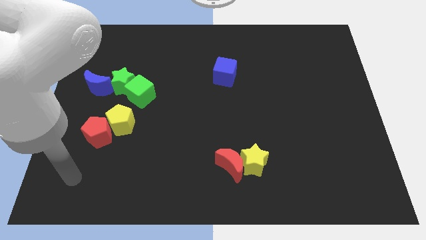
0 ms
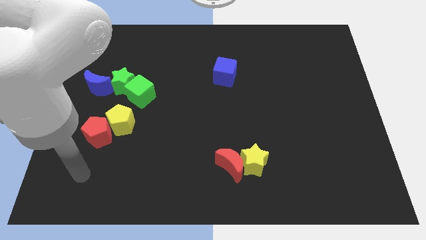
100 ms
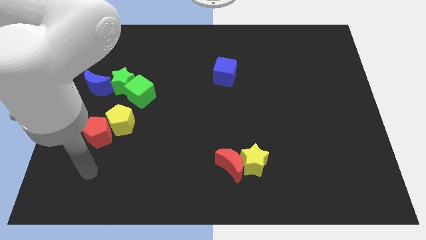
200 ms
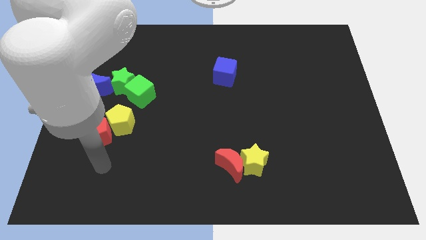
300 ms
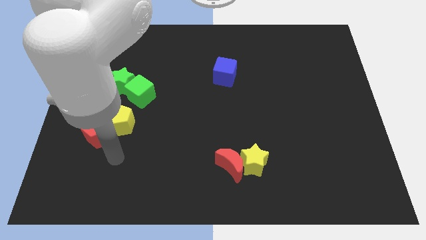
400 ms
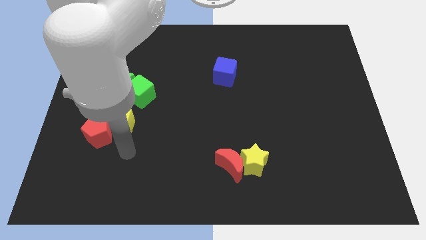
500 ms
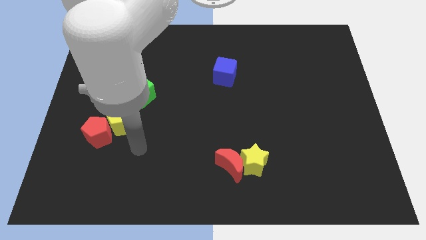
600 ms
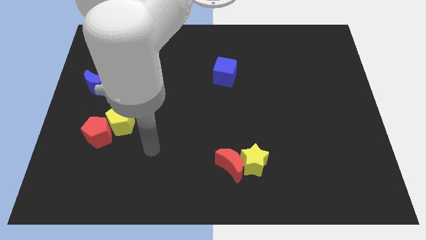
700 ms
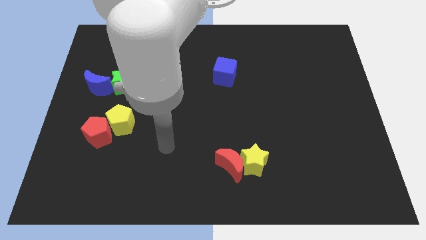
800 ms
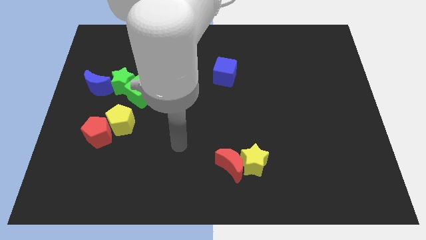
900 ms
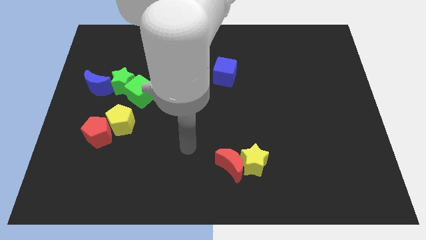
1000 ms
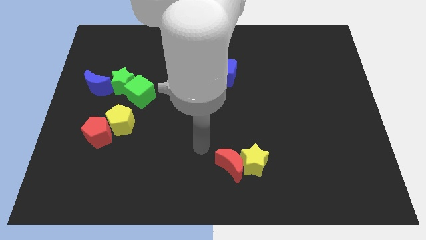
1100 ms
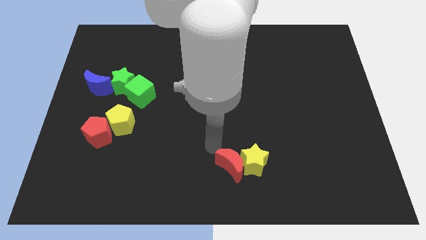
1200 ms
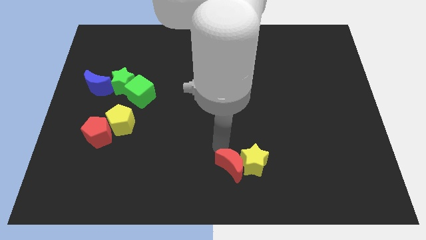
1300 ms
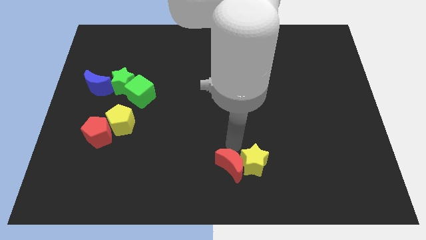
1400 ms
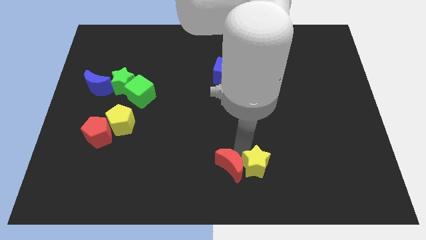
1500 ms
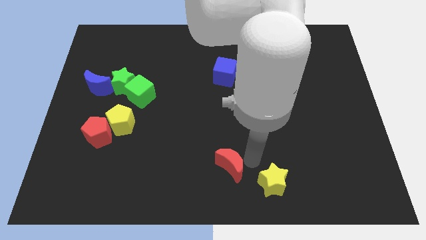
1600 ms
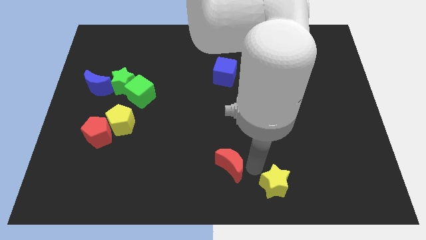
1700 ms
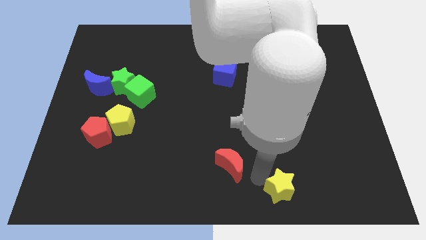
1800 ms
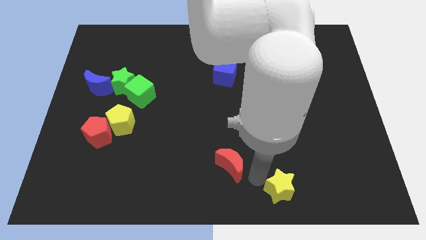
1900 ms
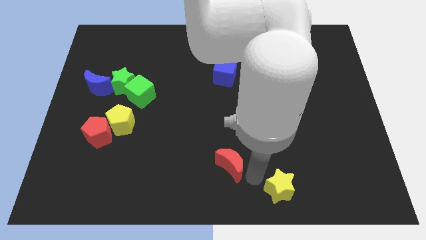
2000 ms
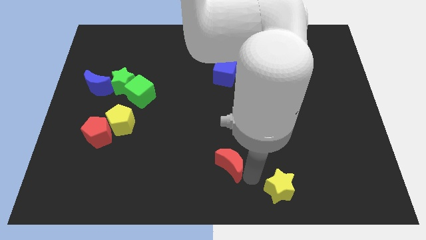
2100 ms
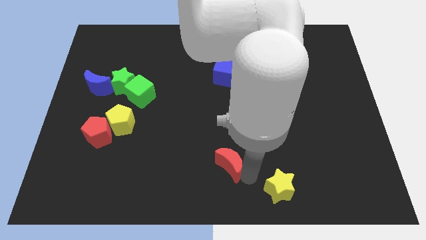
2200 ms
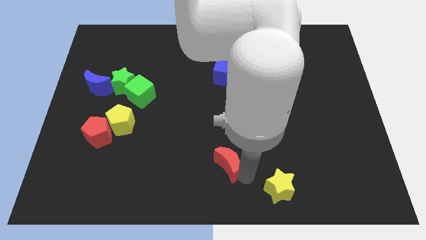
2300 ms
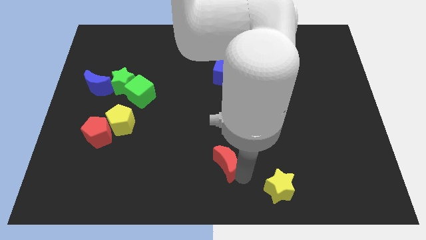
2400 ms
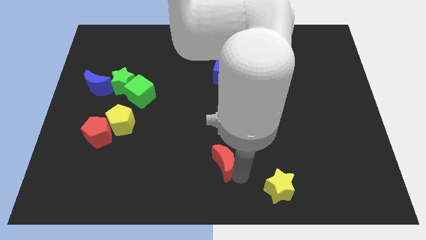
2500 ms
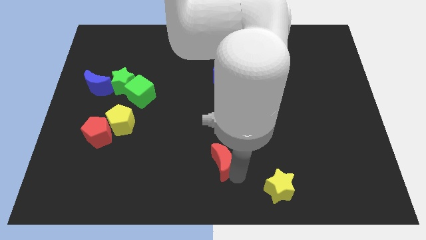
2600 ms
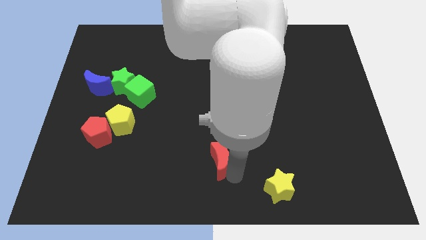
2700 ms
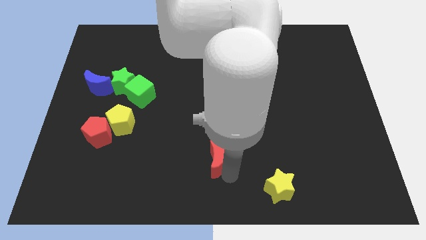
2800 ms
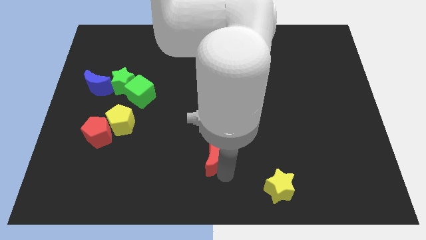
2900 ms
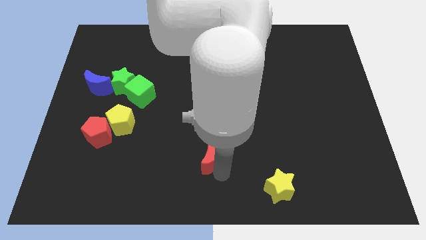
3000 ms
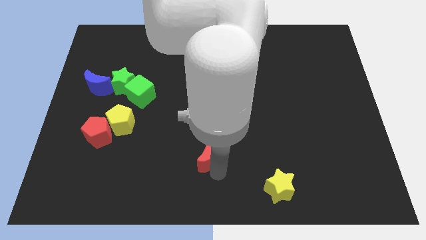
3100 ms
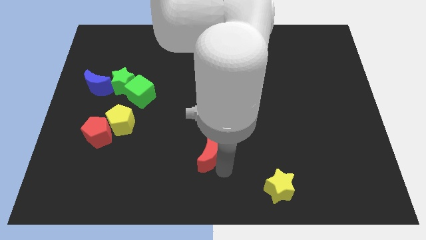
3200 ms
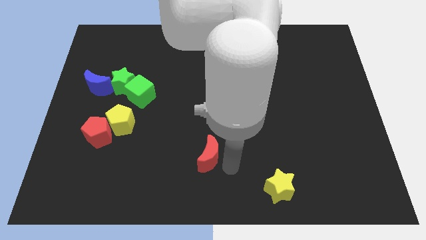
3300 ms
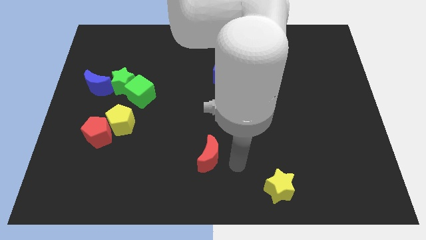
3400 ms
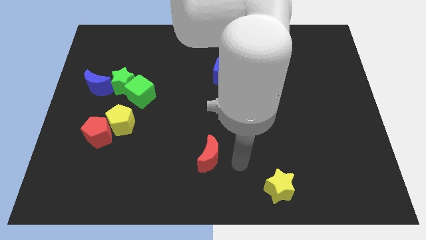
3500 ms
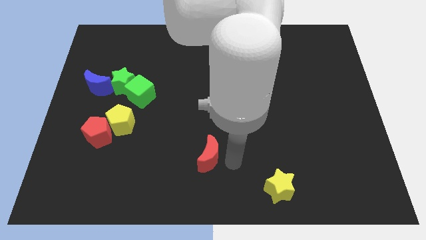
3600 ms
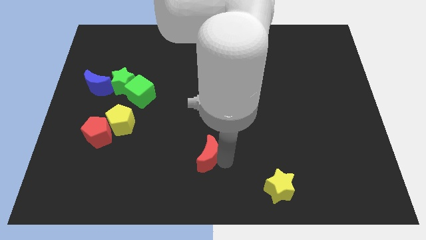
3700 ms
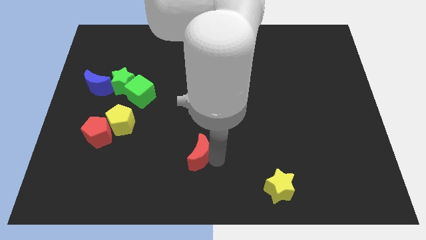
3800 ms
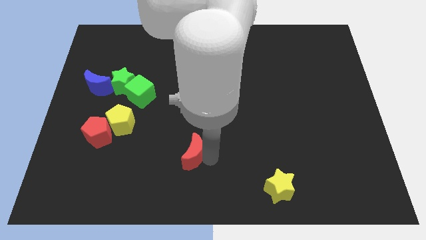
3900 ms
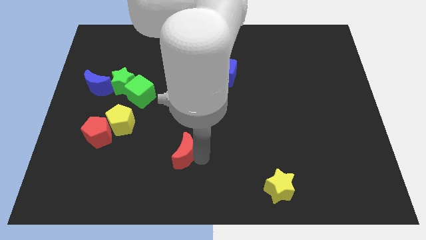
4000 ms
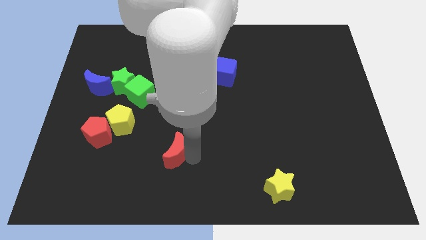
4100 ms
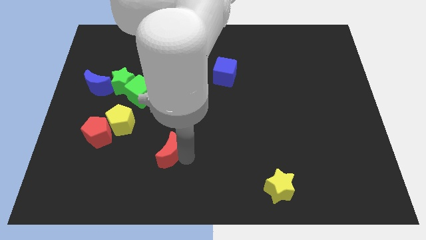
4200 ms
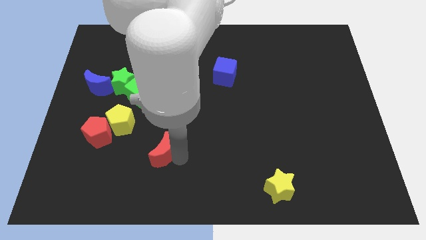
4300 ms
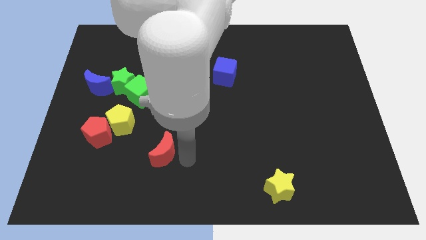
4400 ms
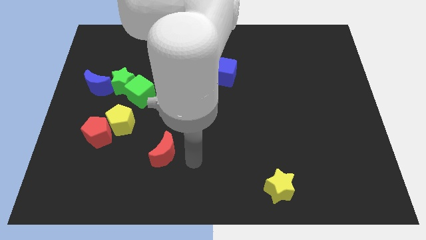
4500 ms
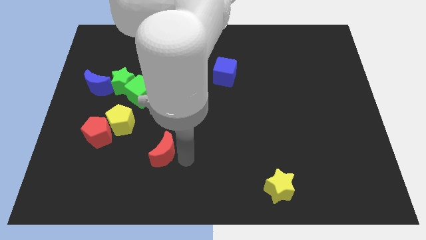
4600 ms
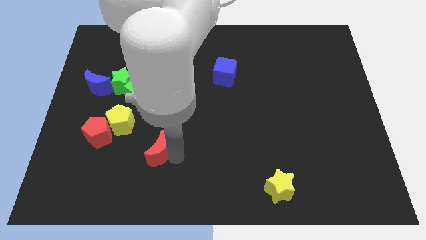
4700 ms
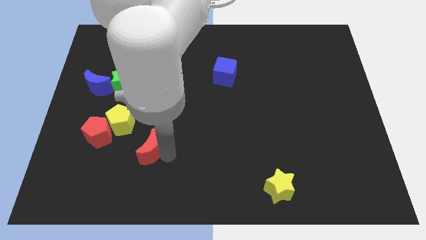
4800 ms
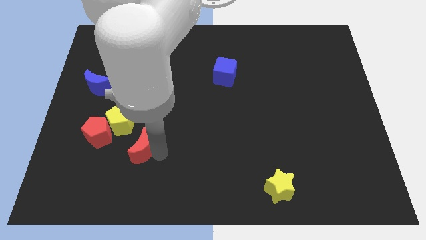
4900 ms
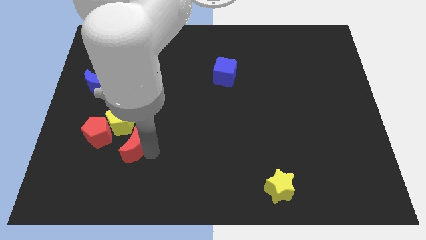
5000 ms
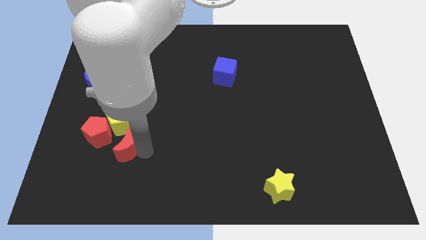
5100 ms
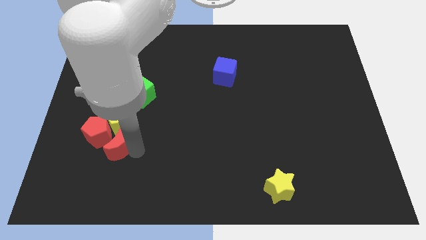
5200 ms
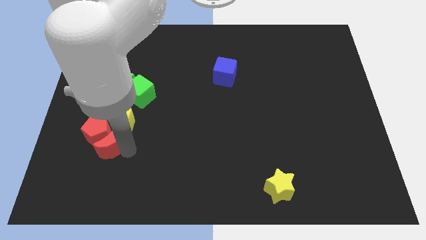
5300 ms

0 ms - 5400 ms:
push the red moon to the red pentagon

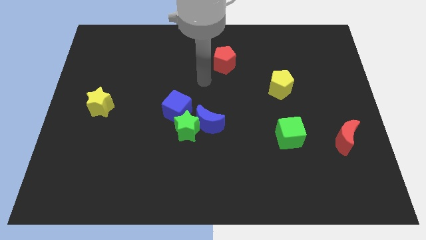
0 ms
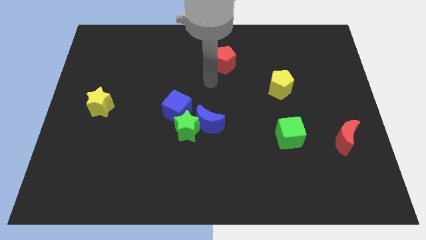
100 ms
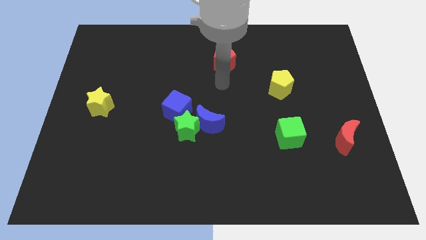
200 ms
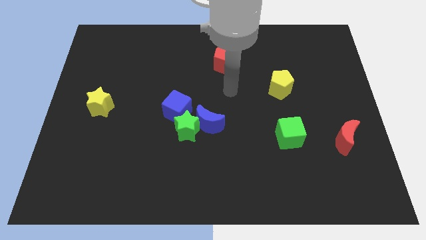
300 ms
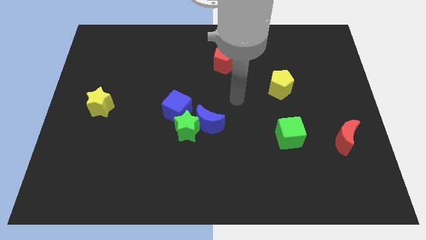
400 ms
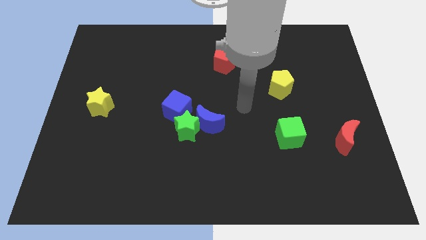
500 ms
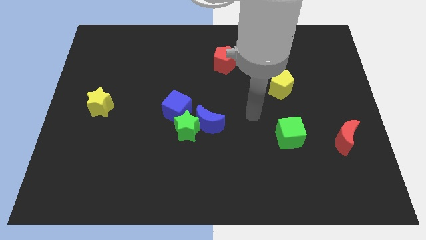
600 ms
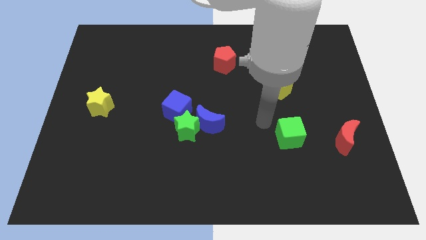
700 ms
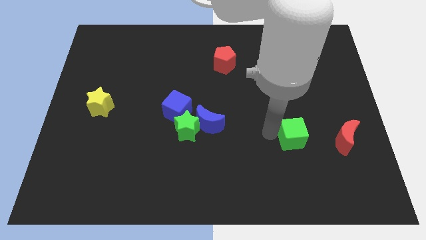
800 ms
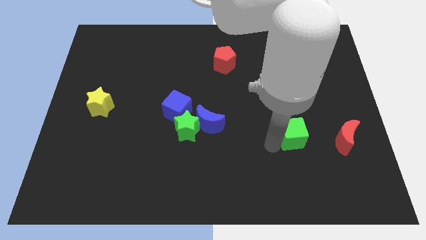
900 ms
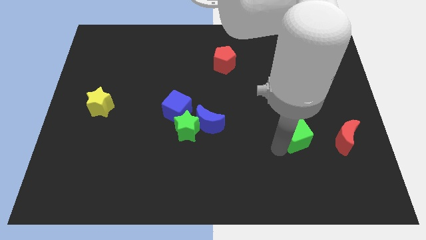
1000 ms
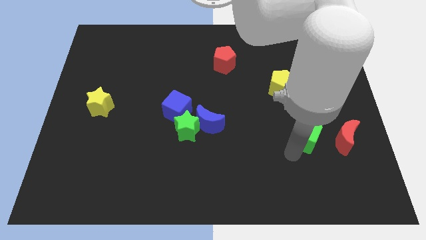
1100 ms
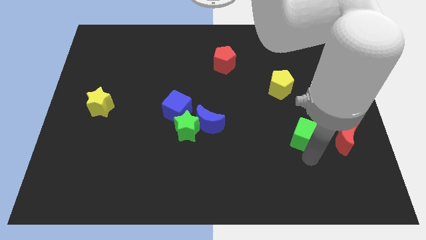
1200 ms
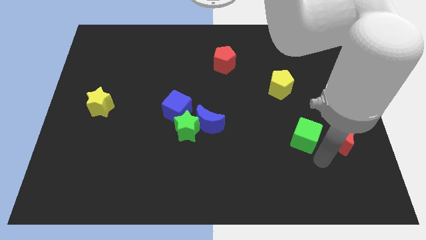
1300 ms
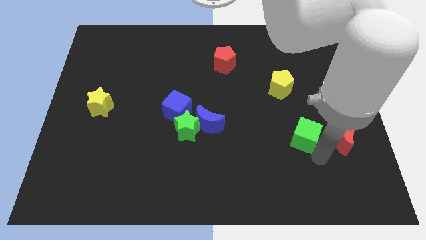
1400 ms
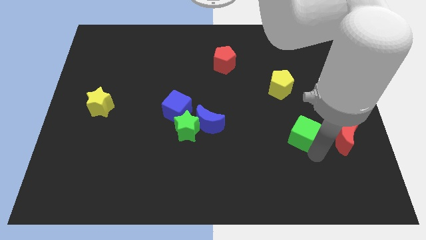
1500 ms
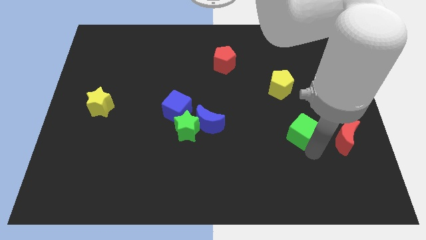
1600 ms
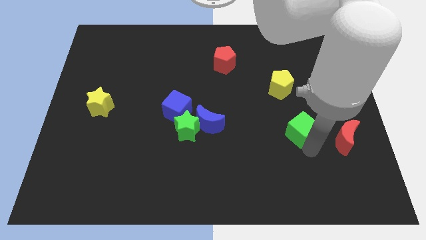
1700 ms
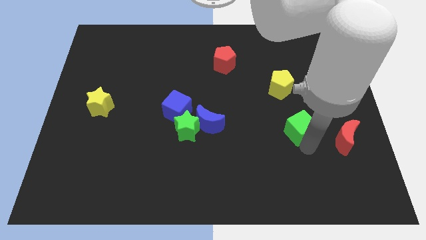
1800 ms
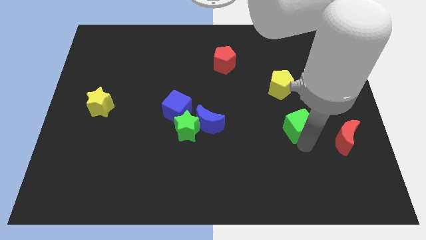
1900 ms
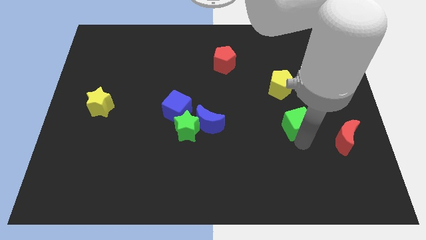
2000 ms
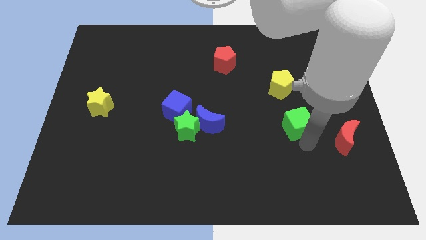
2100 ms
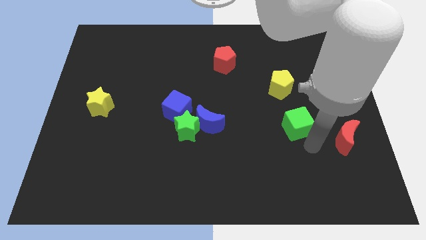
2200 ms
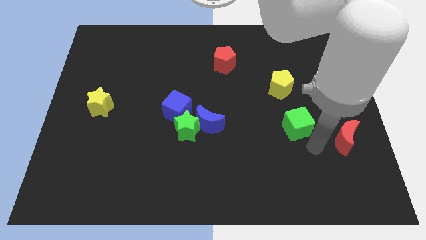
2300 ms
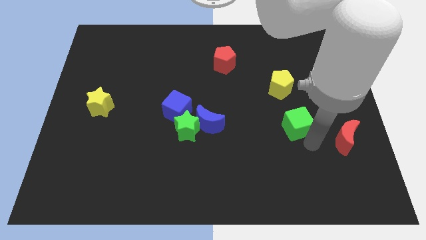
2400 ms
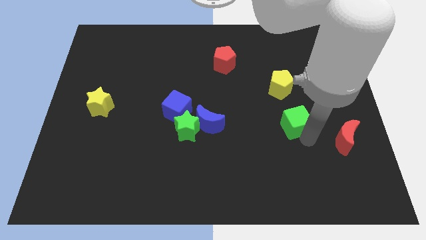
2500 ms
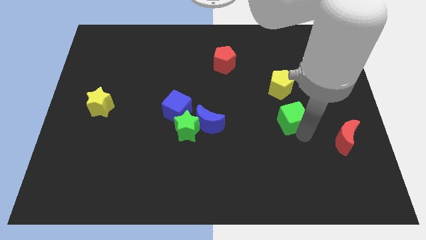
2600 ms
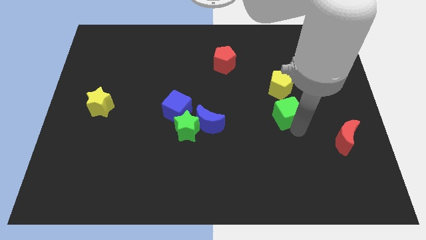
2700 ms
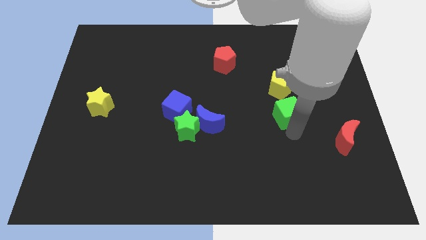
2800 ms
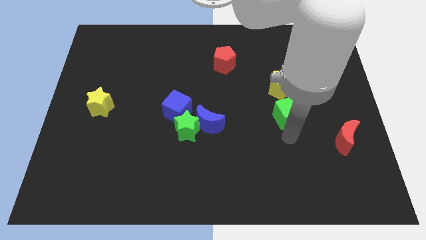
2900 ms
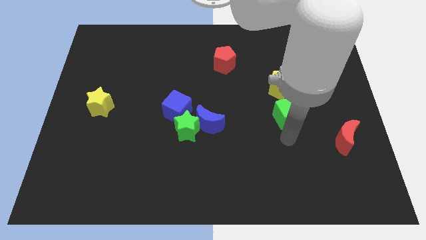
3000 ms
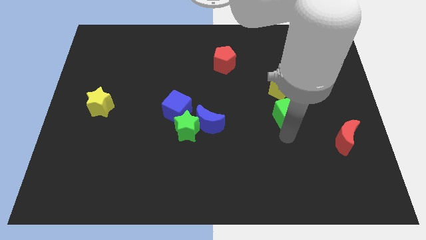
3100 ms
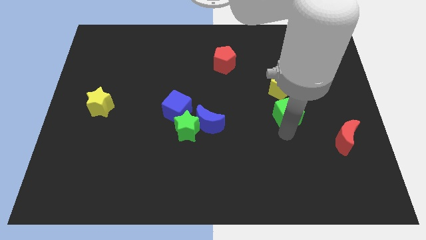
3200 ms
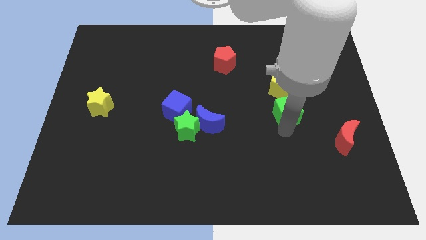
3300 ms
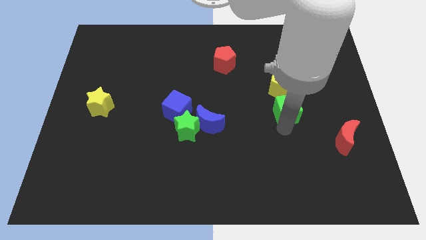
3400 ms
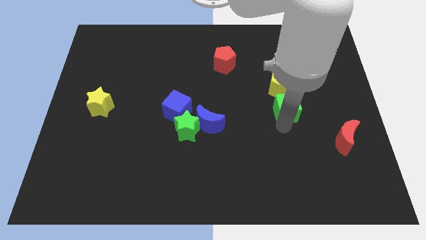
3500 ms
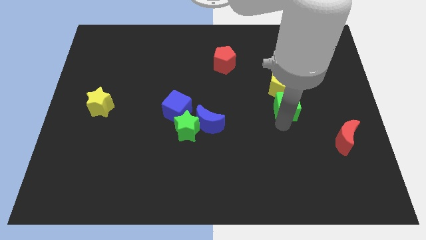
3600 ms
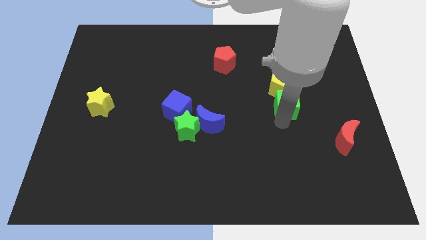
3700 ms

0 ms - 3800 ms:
push the green cube close to the yellow pentagon
